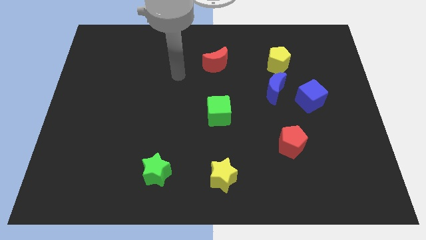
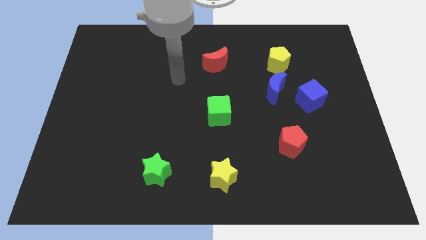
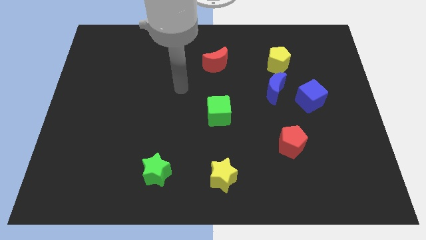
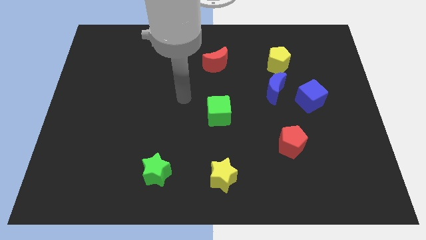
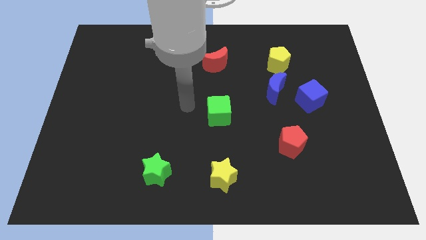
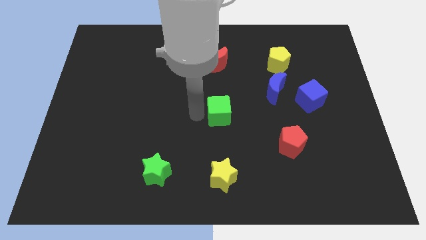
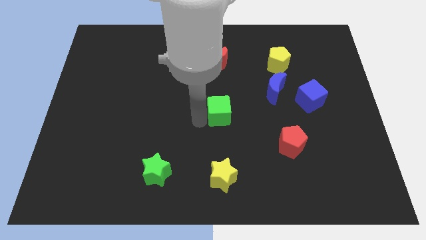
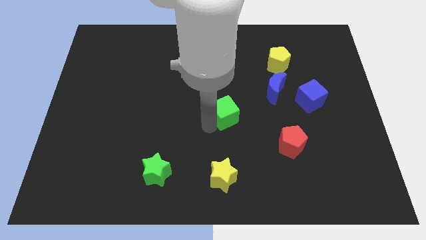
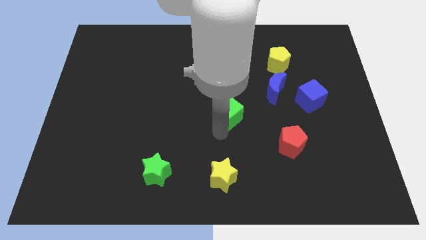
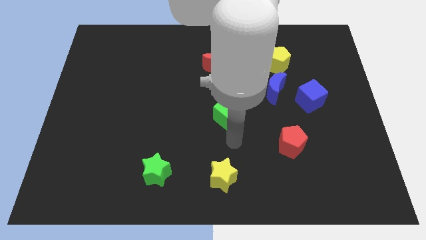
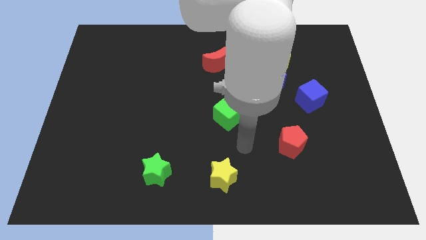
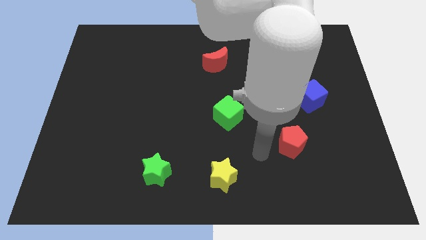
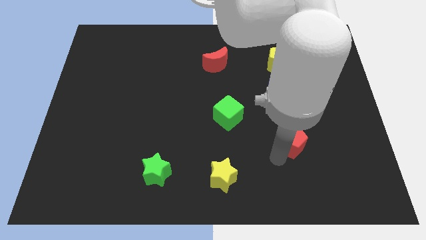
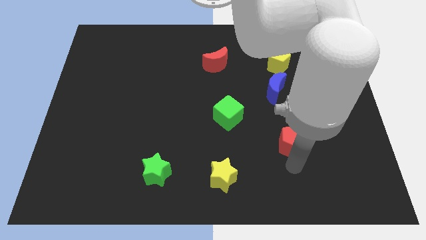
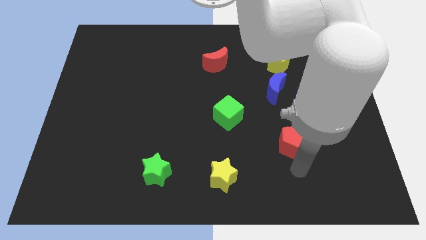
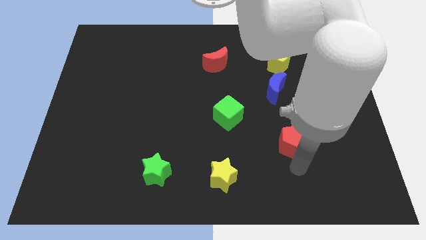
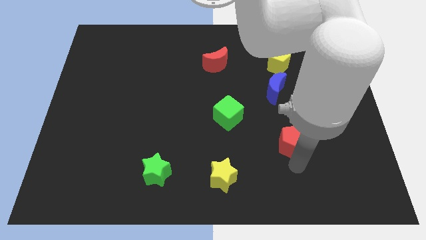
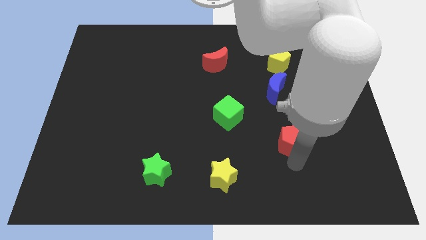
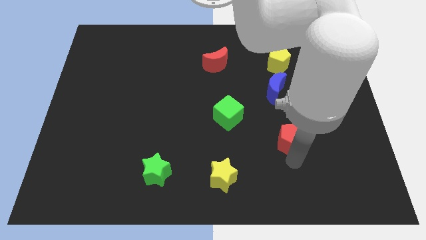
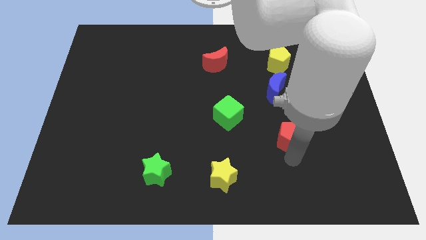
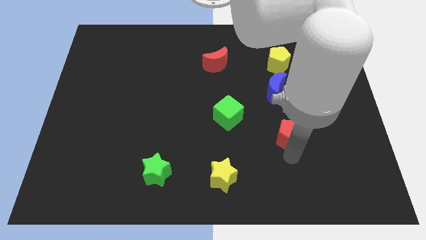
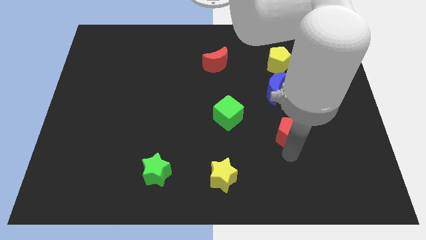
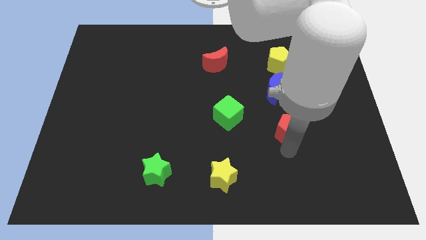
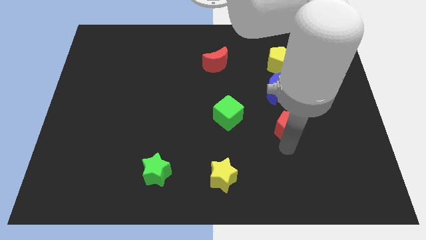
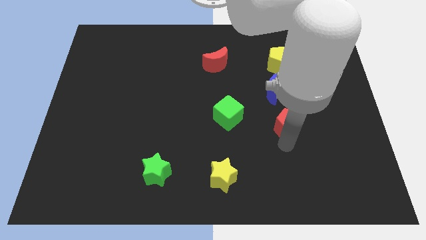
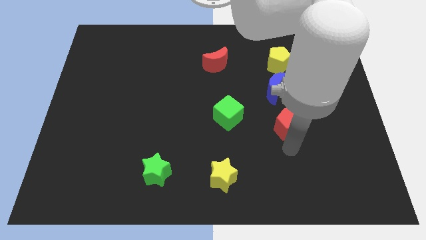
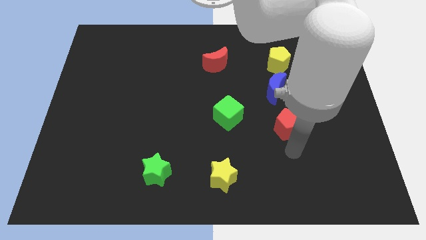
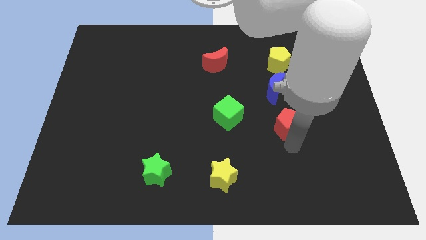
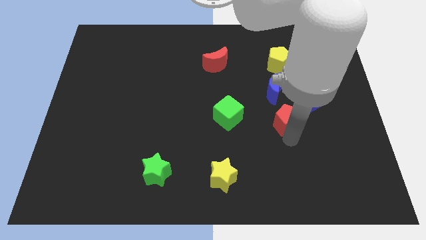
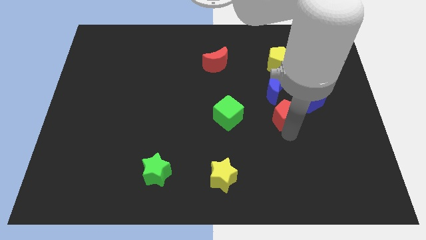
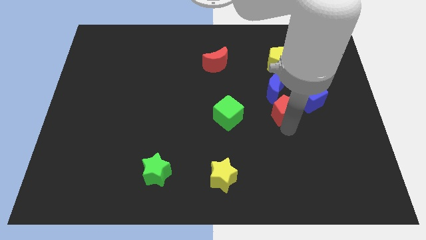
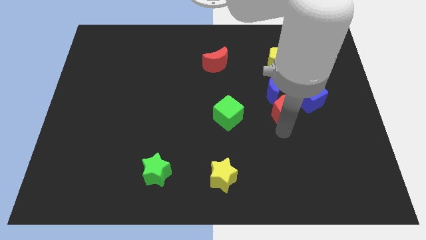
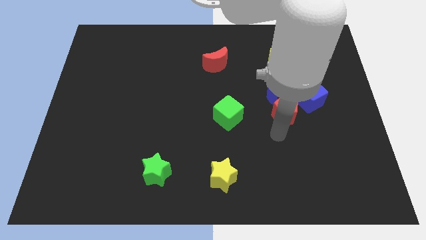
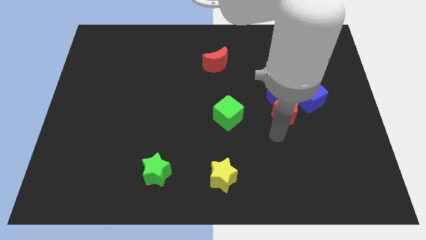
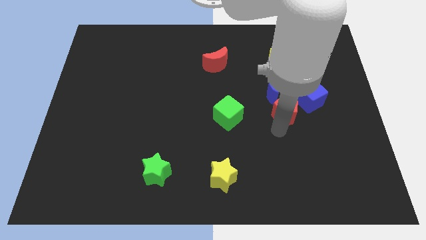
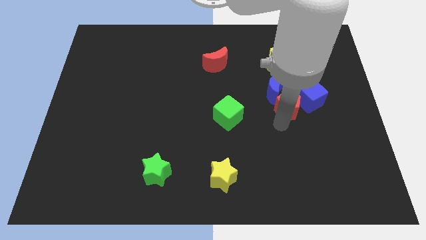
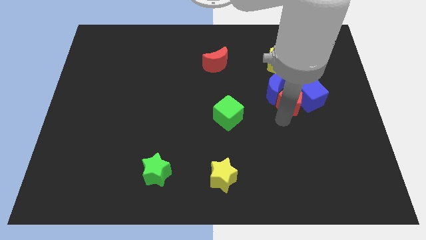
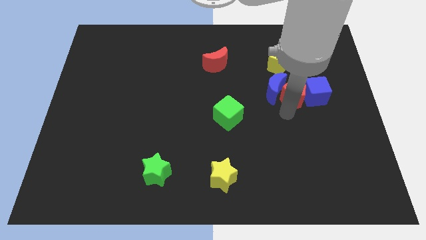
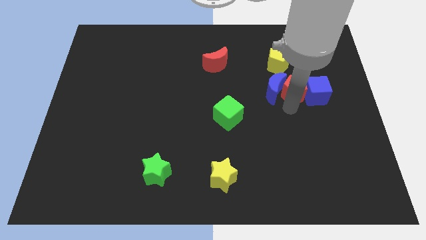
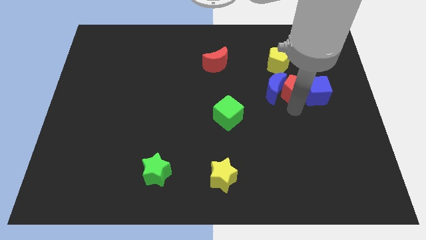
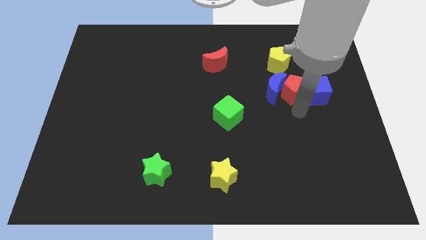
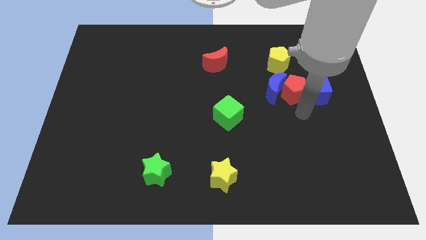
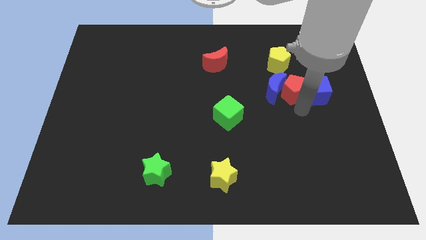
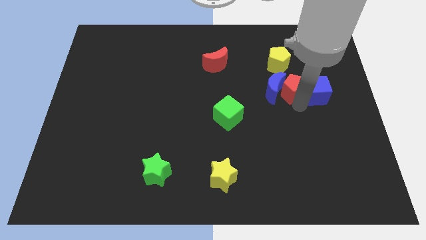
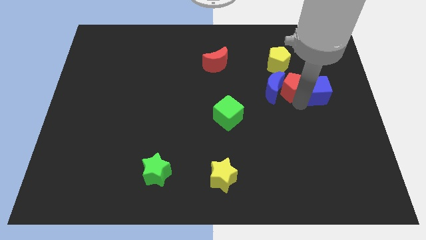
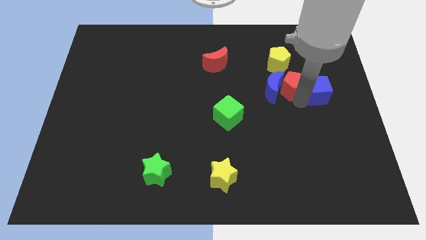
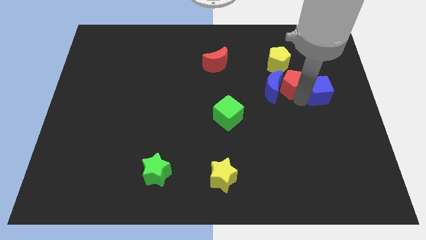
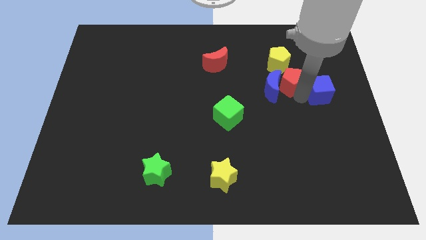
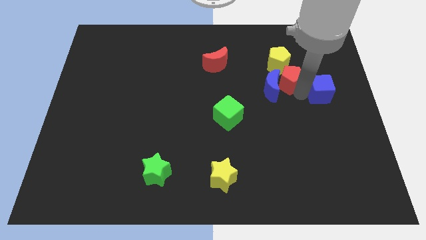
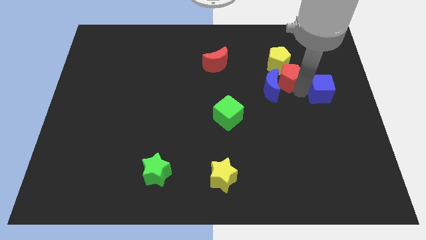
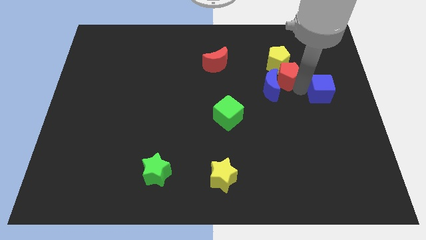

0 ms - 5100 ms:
push the red pentagon next to the yellow pentagon

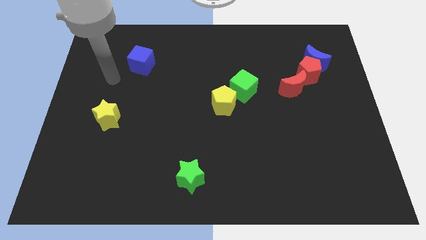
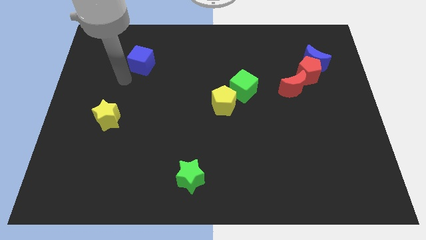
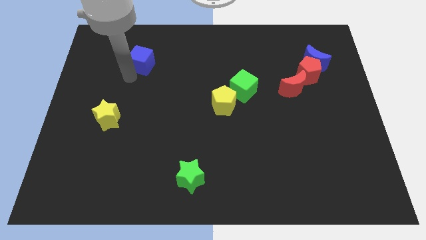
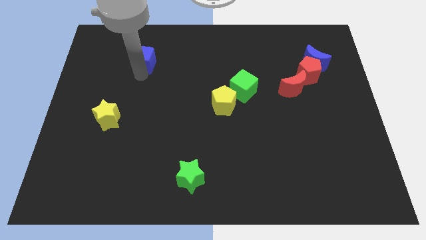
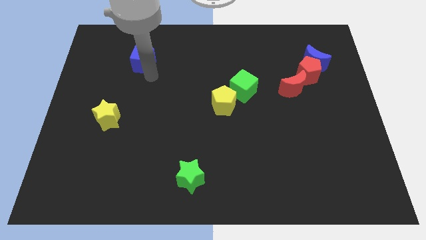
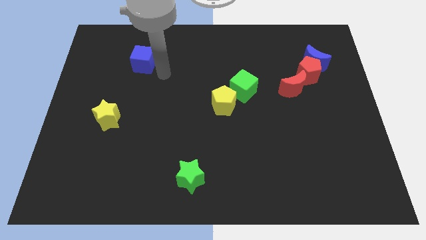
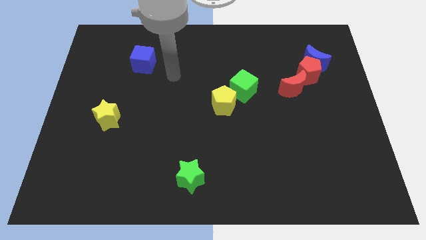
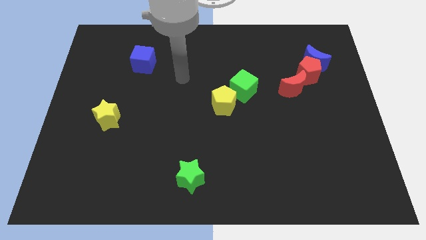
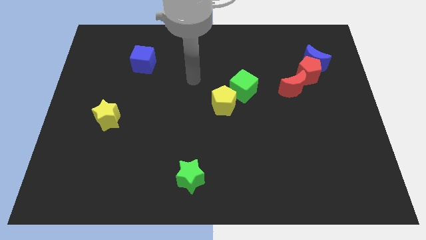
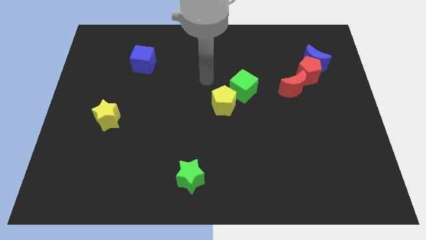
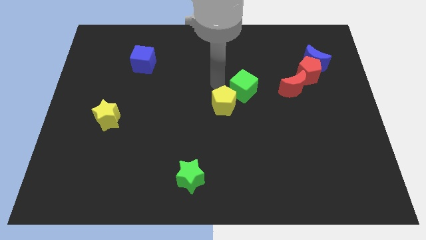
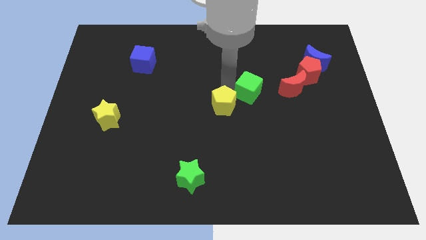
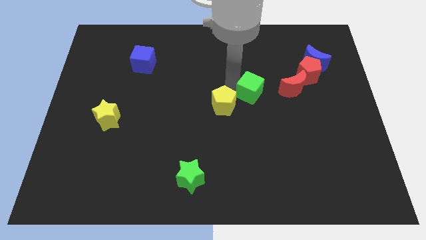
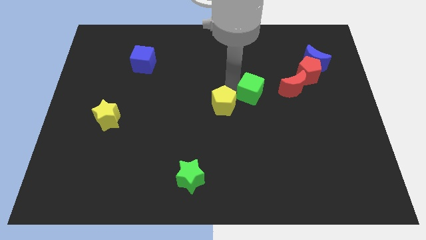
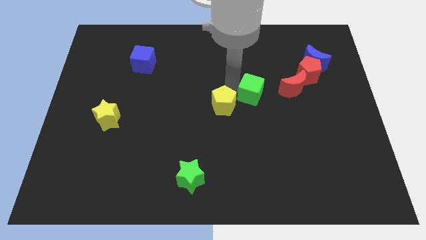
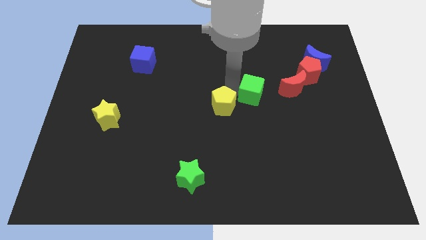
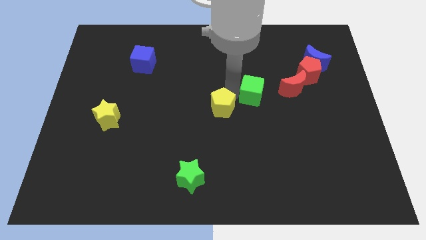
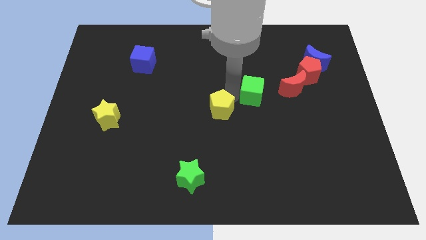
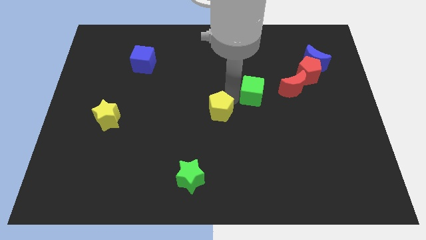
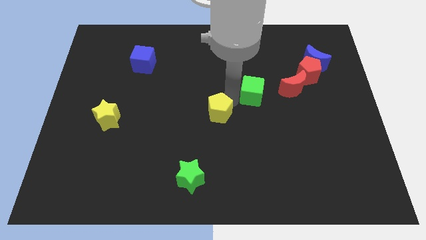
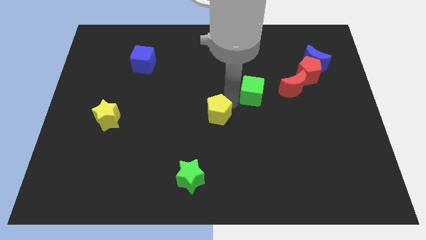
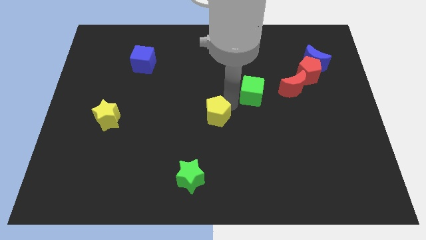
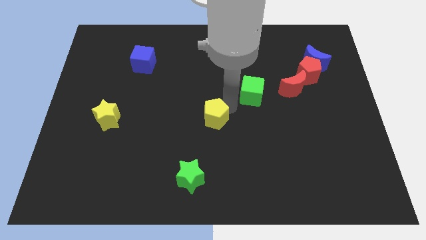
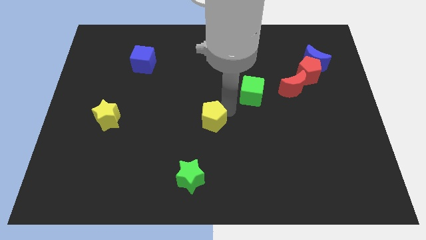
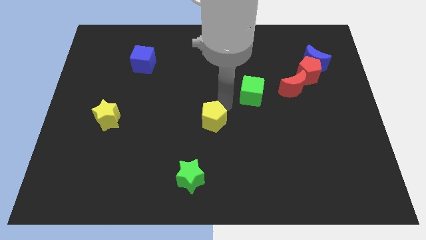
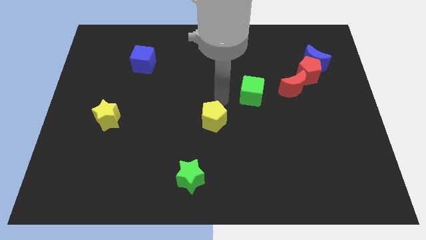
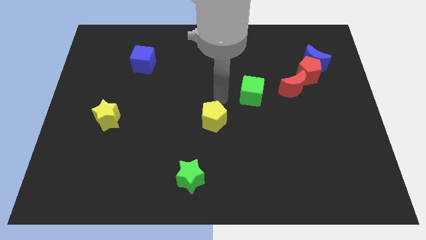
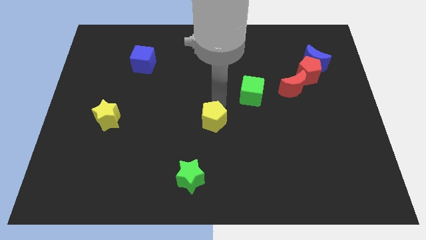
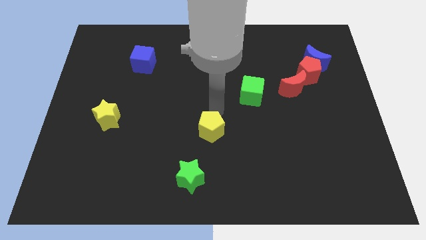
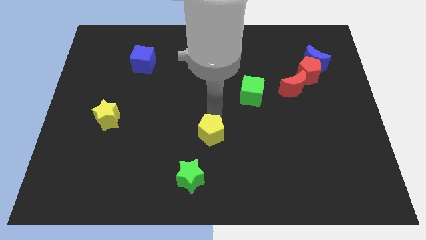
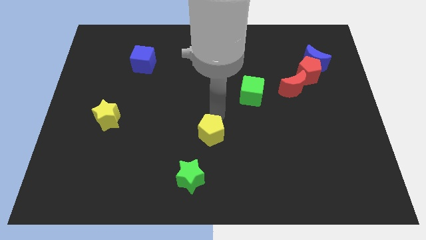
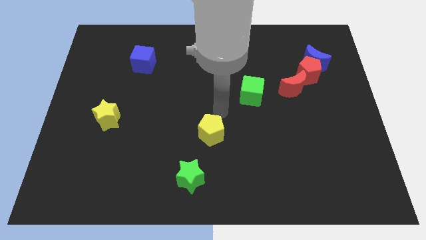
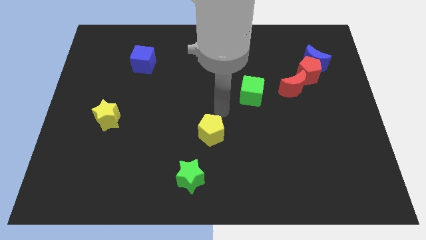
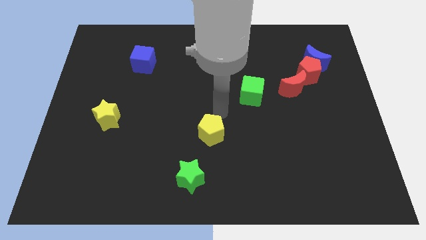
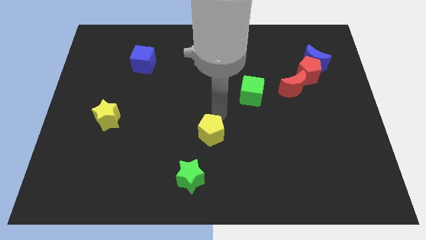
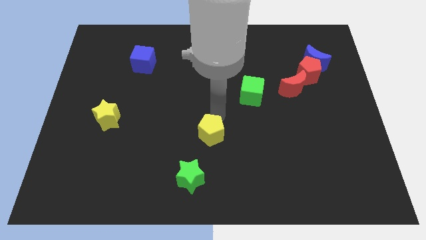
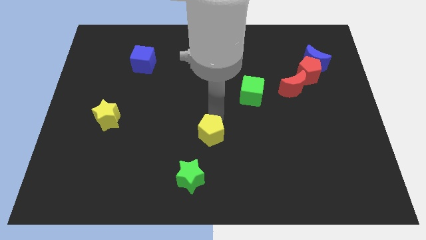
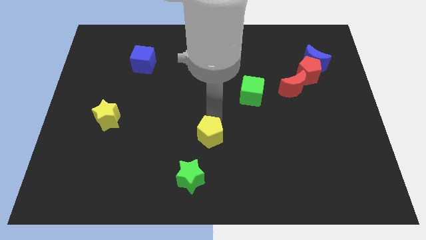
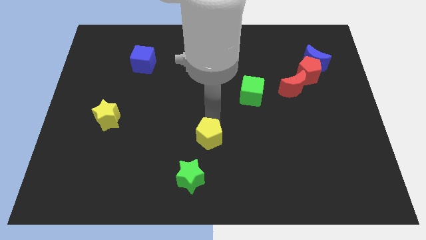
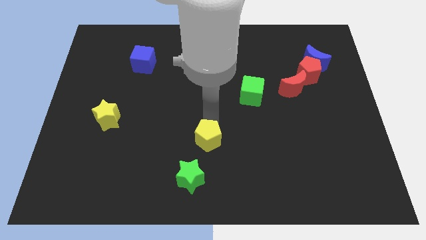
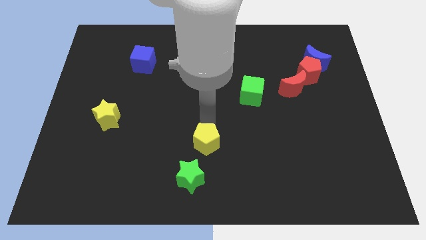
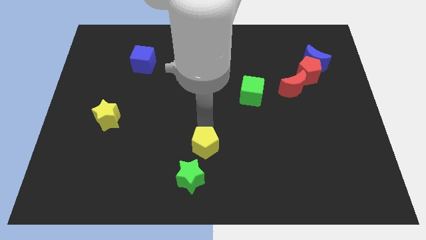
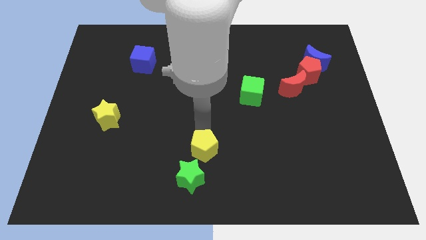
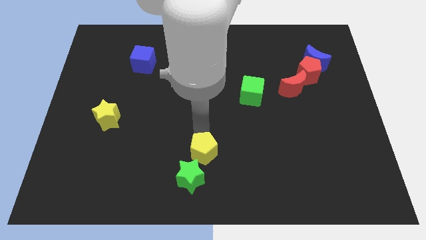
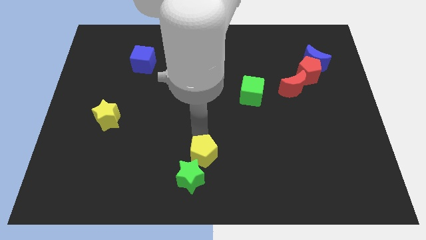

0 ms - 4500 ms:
slide the yellow pentagon next to the green star
